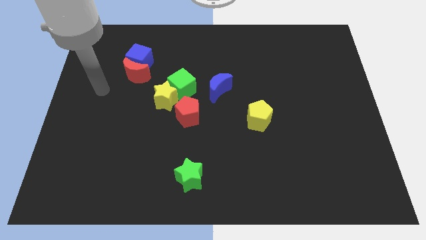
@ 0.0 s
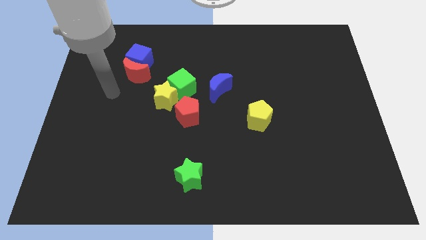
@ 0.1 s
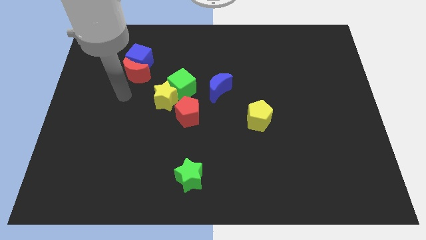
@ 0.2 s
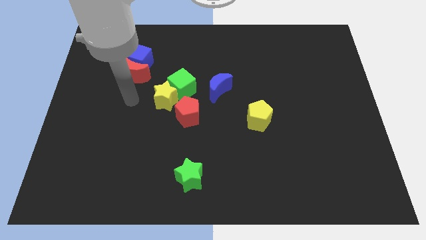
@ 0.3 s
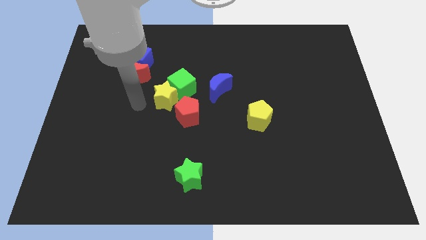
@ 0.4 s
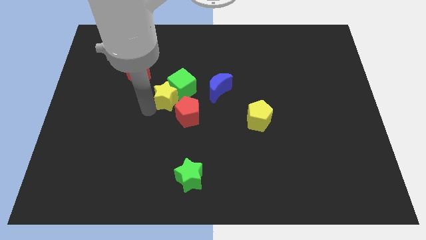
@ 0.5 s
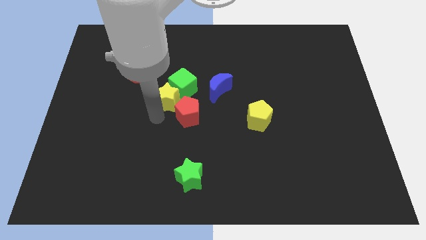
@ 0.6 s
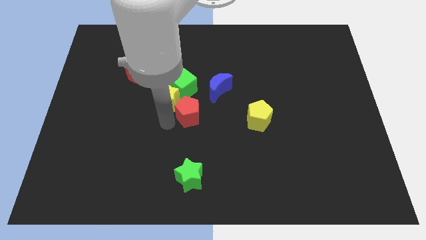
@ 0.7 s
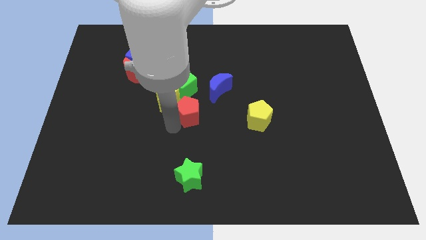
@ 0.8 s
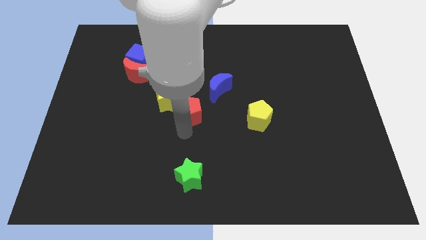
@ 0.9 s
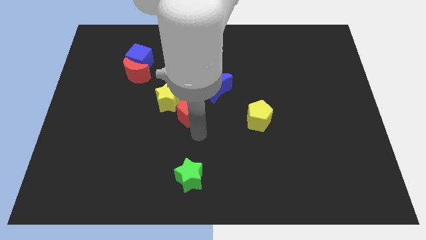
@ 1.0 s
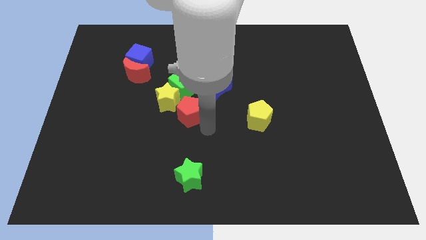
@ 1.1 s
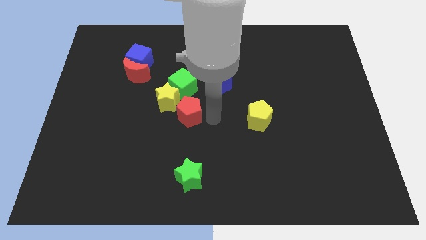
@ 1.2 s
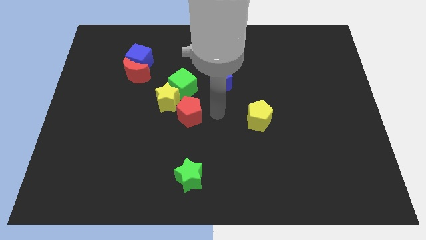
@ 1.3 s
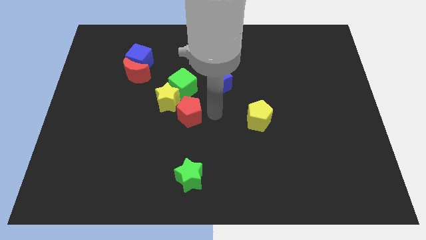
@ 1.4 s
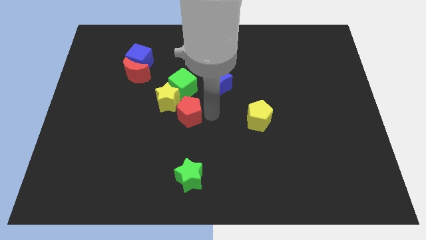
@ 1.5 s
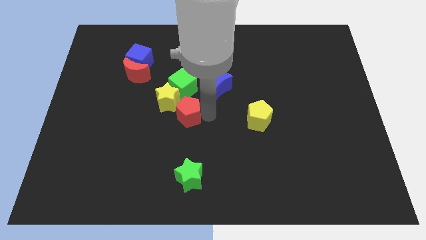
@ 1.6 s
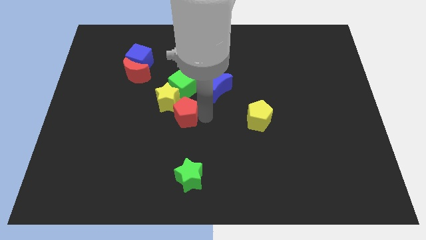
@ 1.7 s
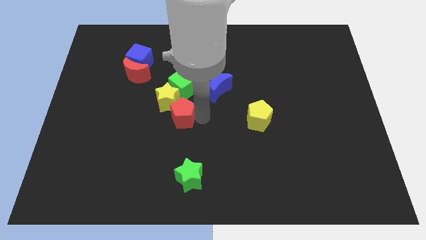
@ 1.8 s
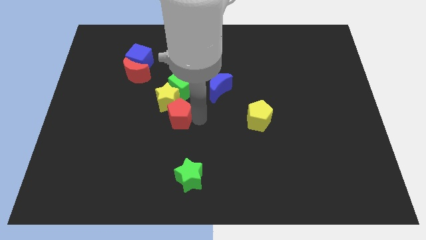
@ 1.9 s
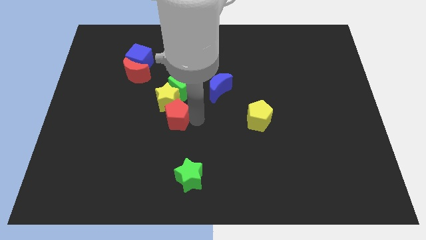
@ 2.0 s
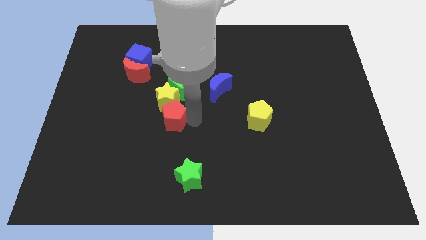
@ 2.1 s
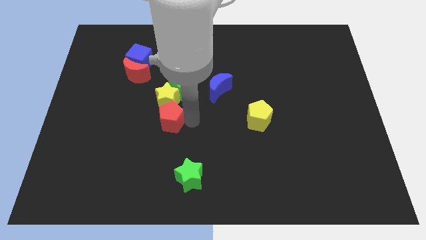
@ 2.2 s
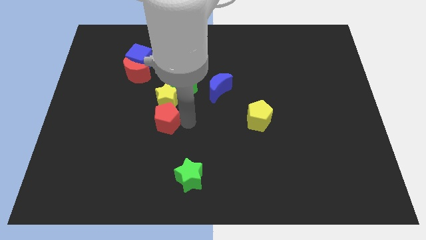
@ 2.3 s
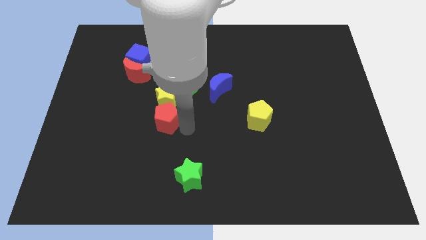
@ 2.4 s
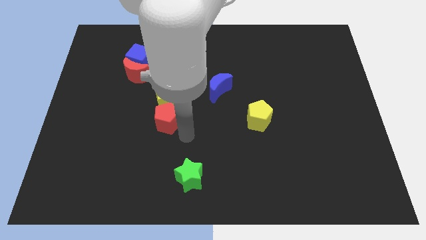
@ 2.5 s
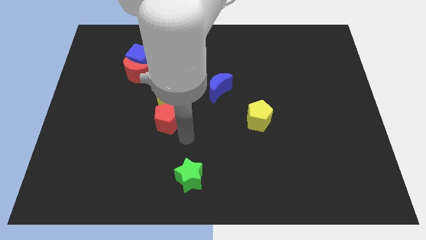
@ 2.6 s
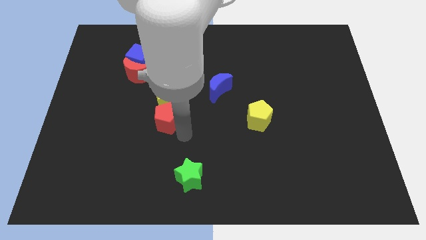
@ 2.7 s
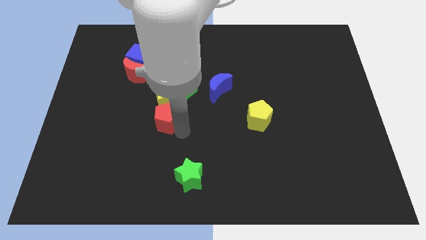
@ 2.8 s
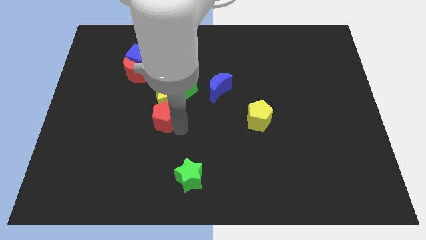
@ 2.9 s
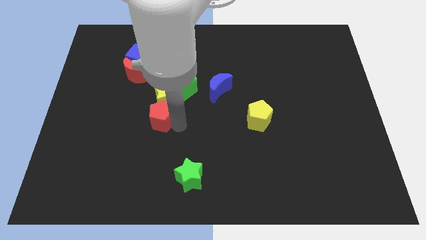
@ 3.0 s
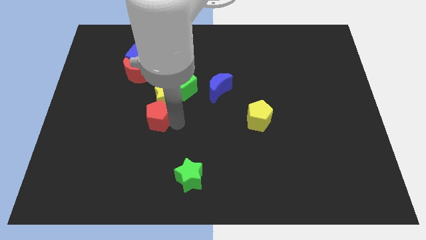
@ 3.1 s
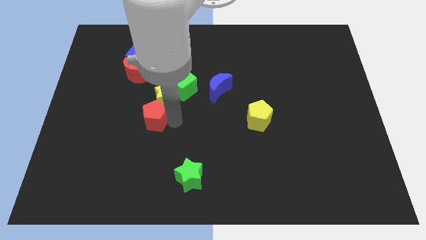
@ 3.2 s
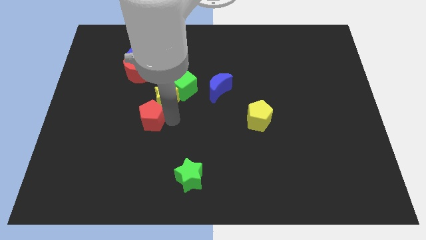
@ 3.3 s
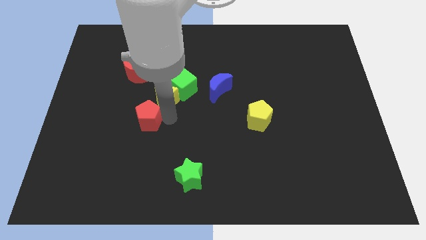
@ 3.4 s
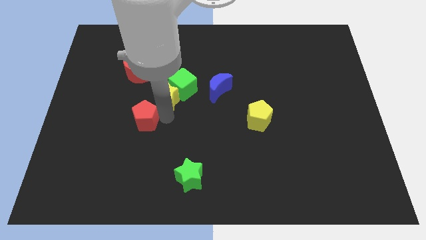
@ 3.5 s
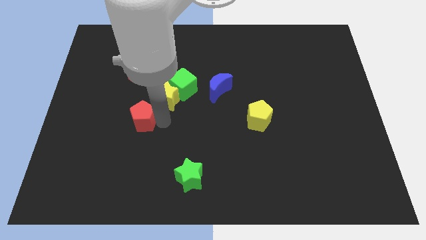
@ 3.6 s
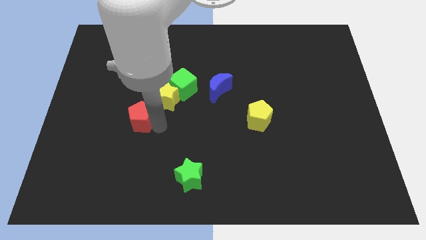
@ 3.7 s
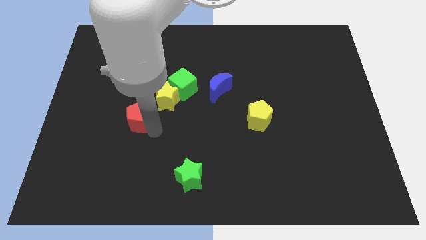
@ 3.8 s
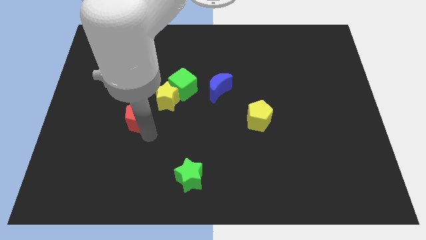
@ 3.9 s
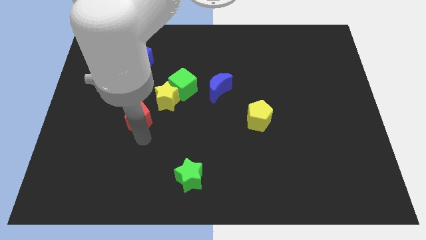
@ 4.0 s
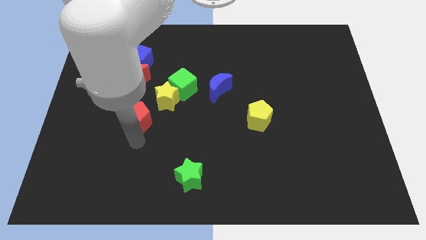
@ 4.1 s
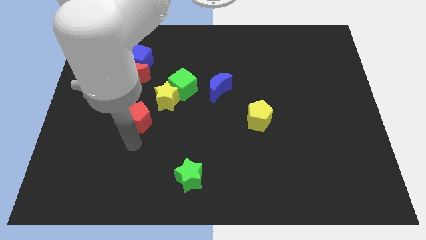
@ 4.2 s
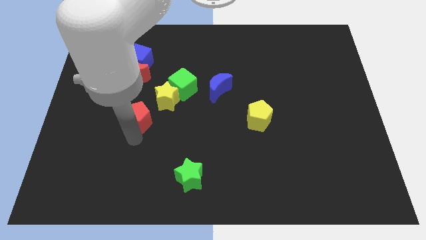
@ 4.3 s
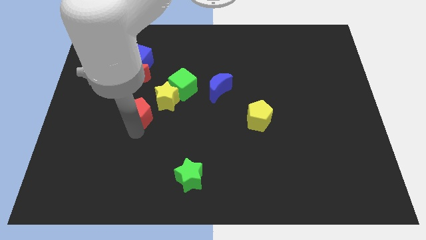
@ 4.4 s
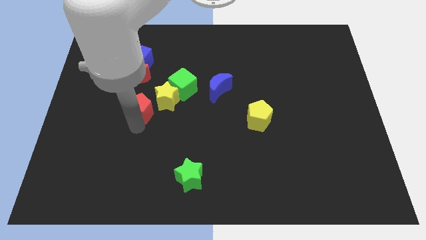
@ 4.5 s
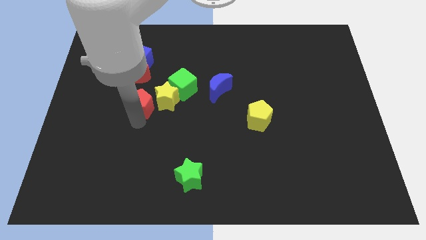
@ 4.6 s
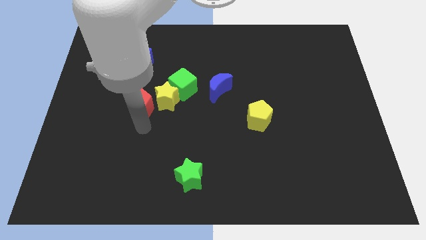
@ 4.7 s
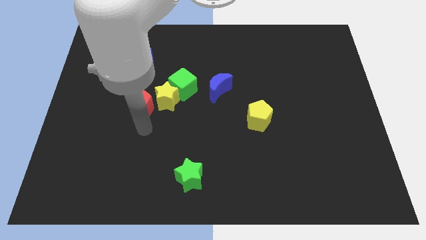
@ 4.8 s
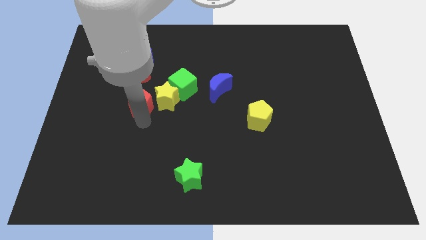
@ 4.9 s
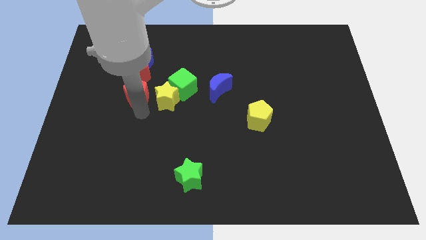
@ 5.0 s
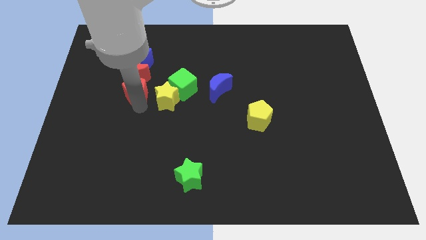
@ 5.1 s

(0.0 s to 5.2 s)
push the red pentagon next to the red moon

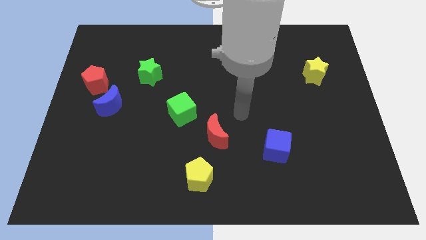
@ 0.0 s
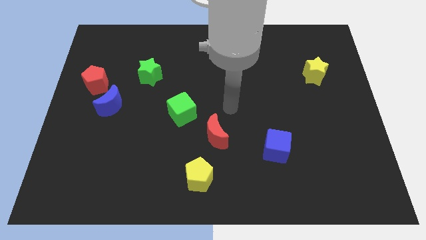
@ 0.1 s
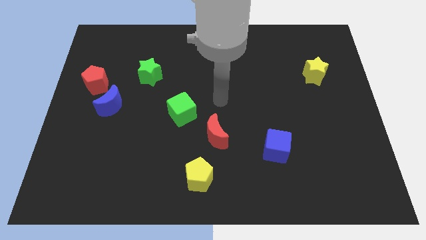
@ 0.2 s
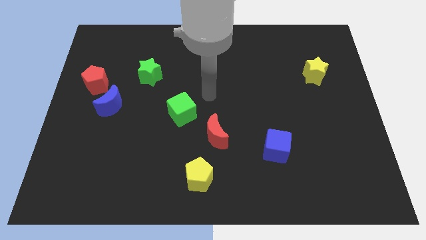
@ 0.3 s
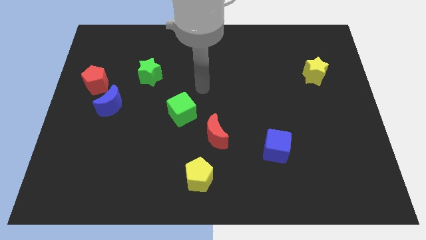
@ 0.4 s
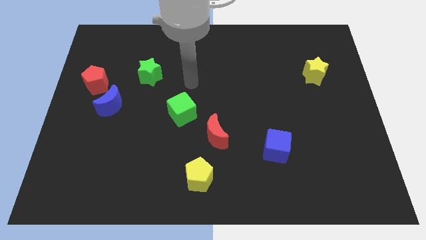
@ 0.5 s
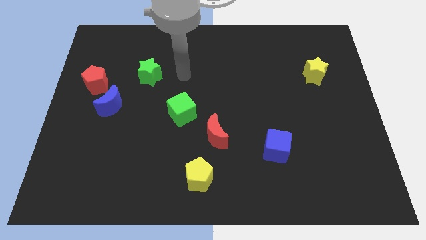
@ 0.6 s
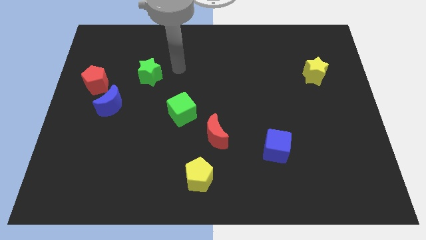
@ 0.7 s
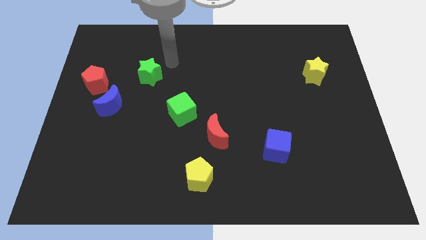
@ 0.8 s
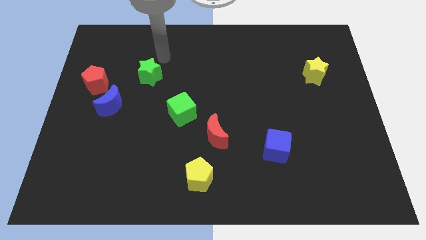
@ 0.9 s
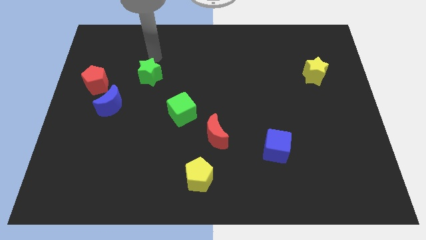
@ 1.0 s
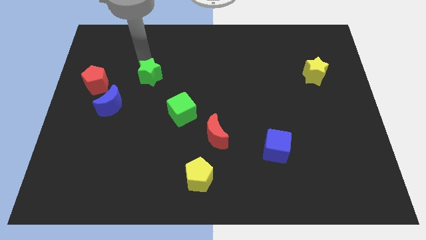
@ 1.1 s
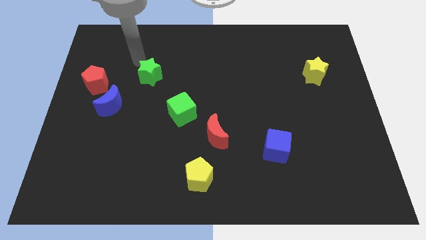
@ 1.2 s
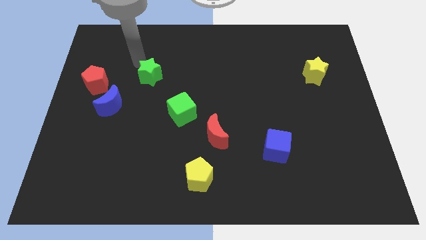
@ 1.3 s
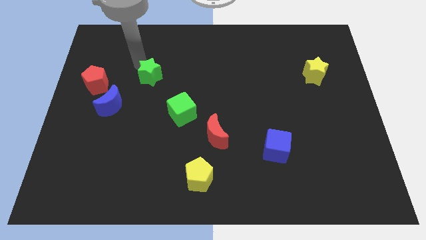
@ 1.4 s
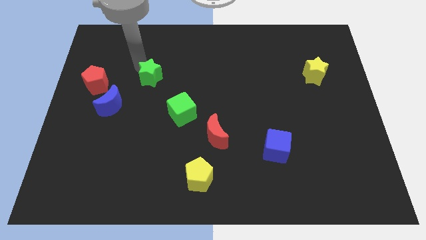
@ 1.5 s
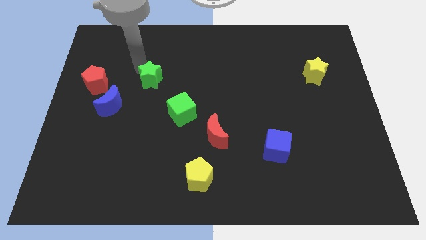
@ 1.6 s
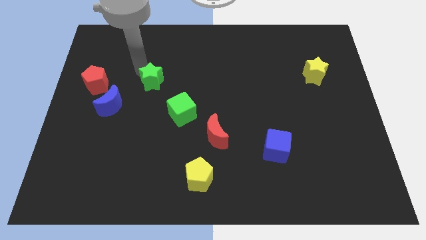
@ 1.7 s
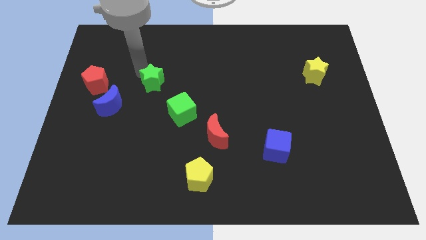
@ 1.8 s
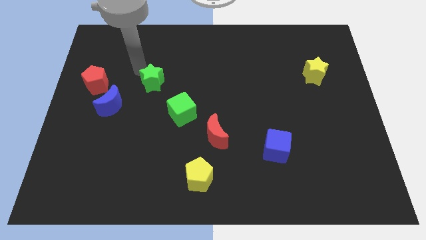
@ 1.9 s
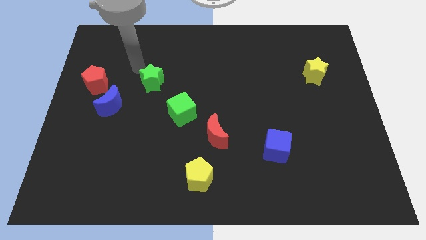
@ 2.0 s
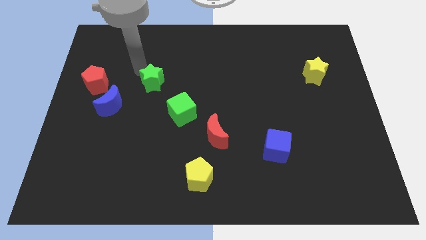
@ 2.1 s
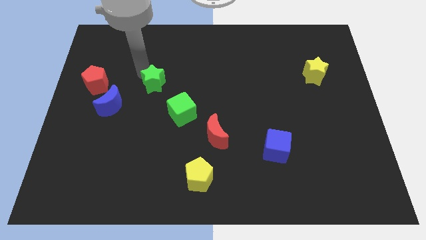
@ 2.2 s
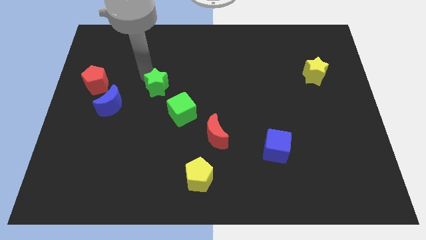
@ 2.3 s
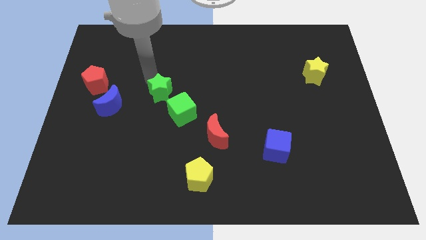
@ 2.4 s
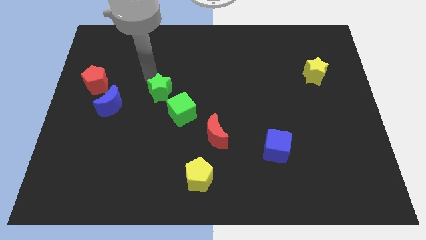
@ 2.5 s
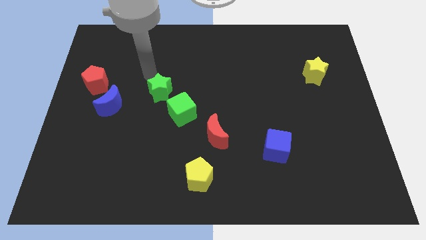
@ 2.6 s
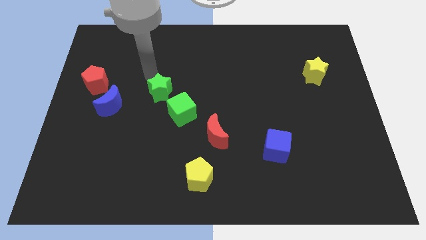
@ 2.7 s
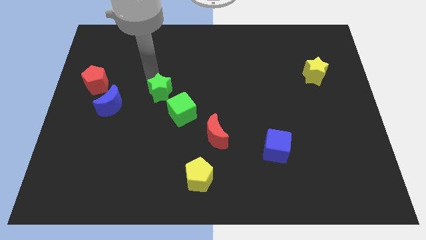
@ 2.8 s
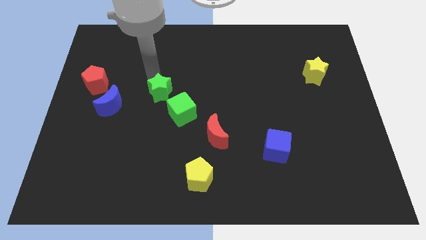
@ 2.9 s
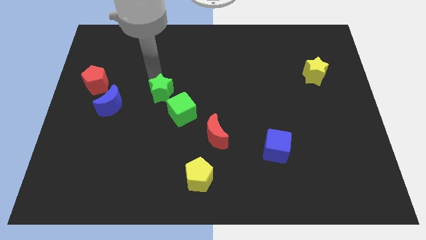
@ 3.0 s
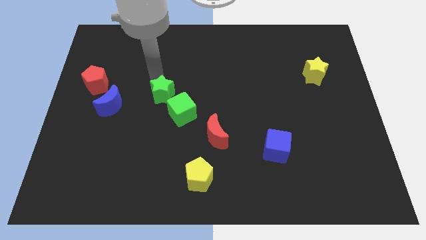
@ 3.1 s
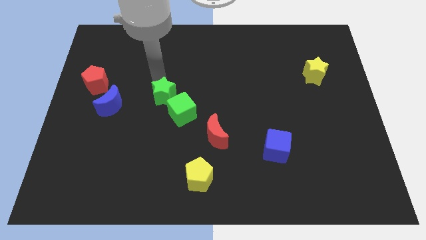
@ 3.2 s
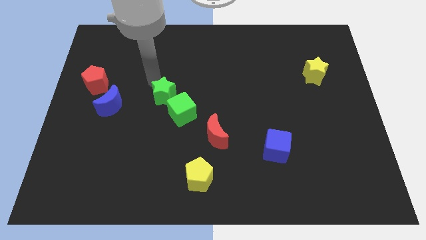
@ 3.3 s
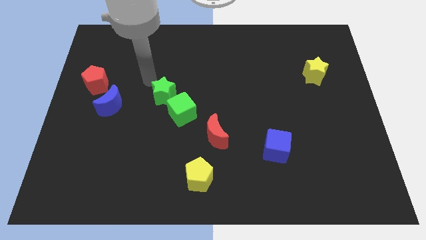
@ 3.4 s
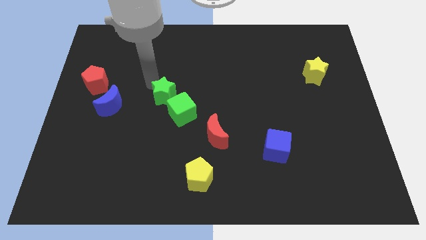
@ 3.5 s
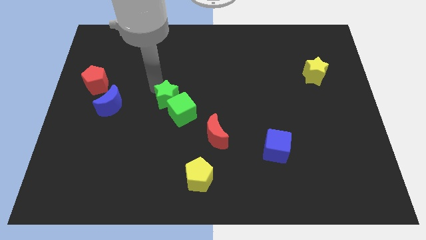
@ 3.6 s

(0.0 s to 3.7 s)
put the green star to the green cube
